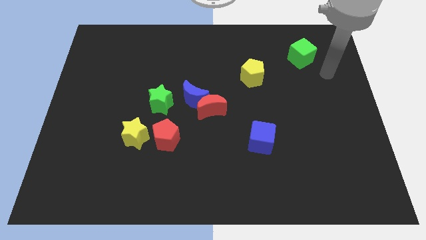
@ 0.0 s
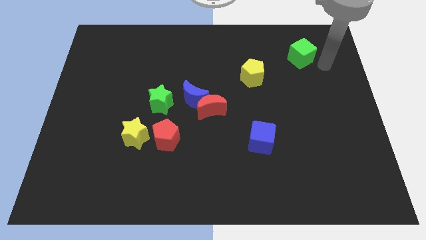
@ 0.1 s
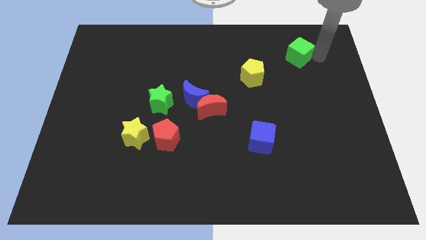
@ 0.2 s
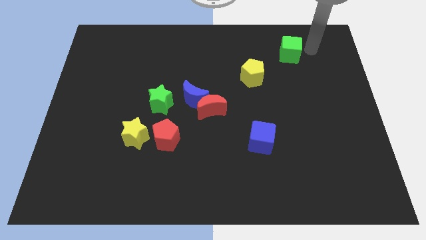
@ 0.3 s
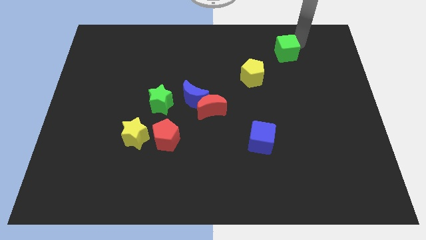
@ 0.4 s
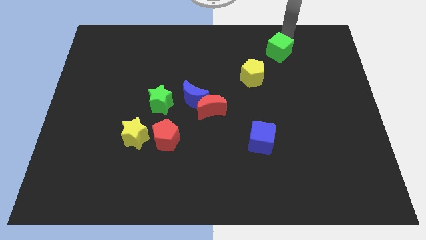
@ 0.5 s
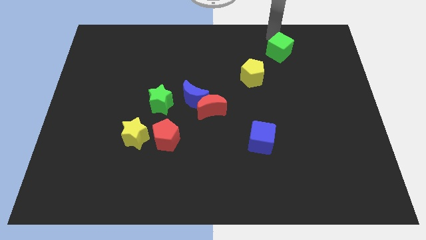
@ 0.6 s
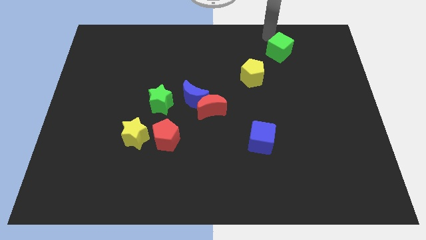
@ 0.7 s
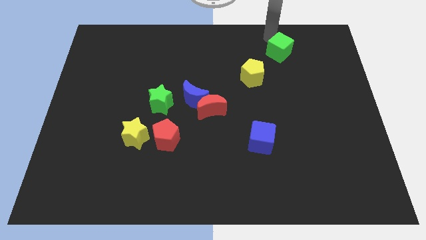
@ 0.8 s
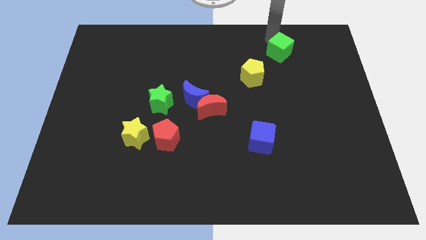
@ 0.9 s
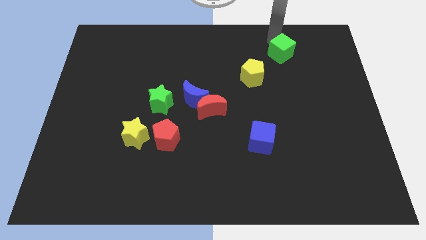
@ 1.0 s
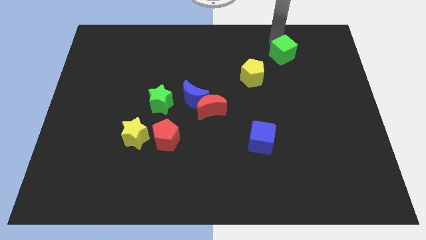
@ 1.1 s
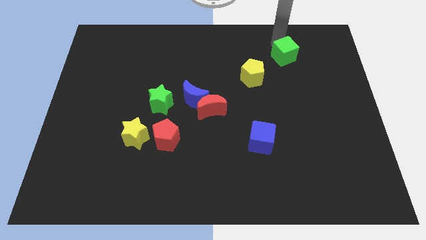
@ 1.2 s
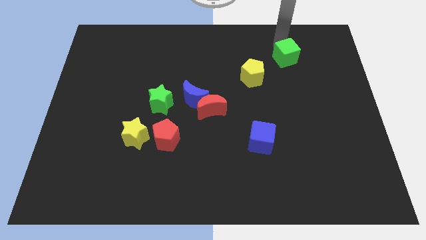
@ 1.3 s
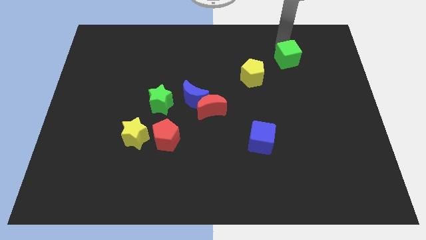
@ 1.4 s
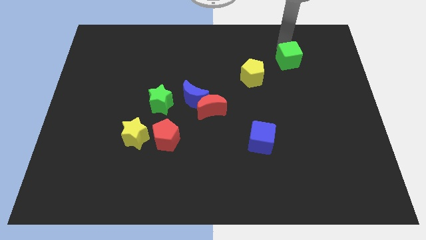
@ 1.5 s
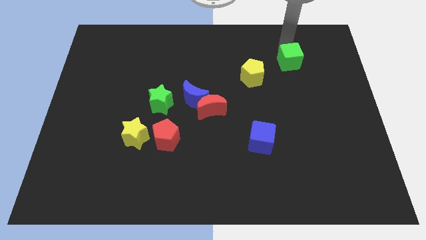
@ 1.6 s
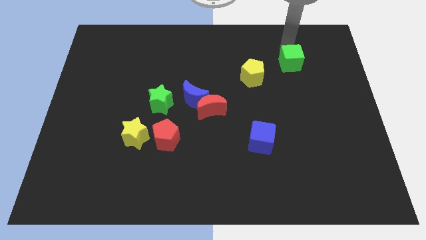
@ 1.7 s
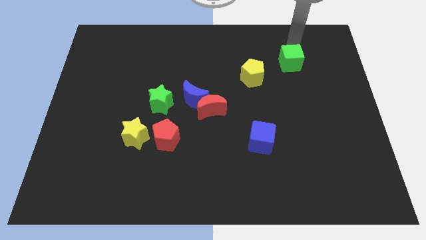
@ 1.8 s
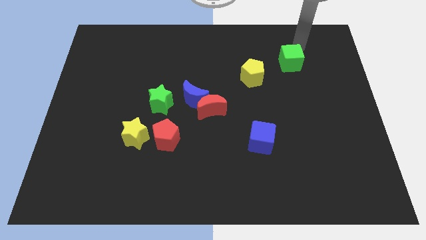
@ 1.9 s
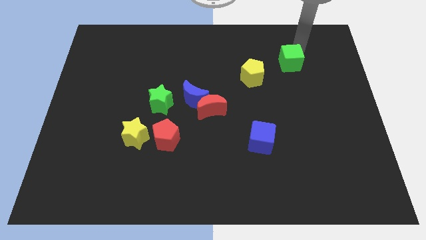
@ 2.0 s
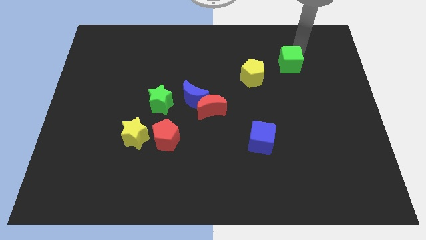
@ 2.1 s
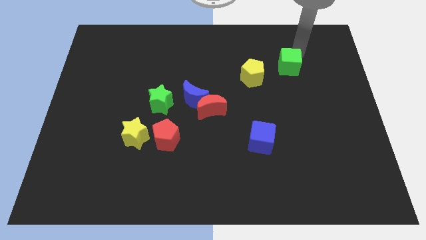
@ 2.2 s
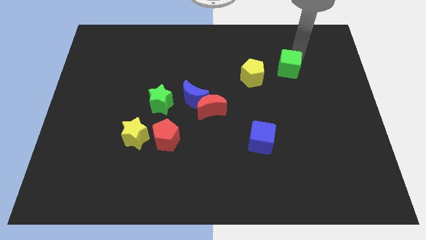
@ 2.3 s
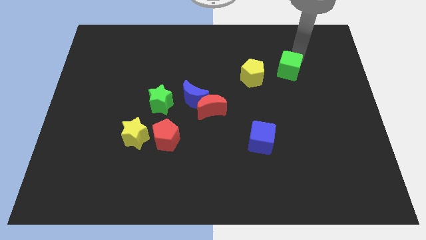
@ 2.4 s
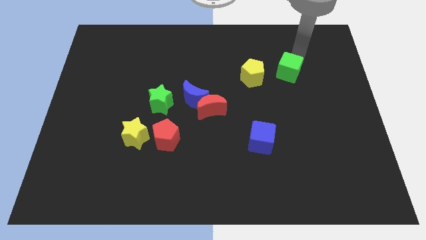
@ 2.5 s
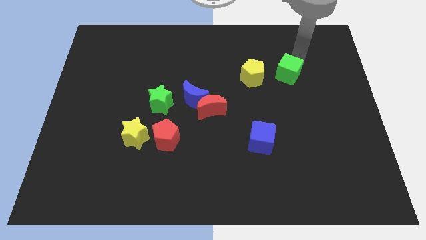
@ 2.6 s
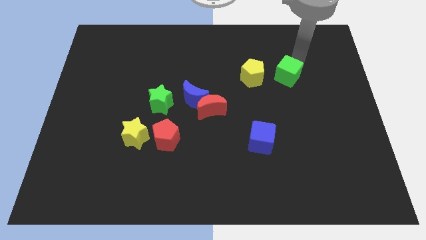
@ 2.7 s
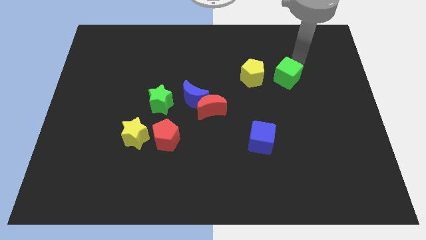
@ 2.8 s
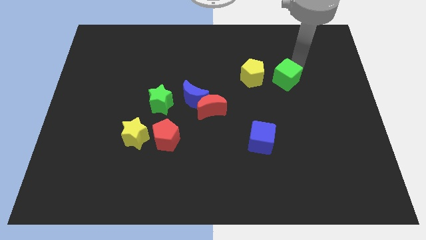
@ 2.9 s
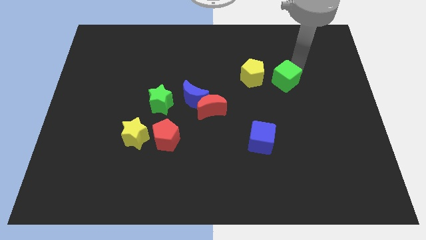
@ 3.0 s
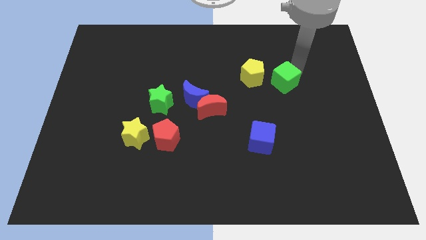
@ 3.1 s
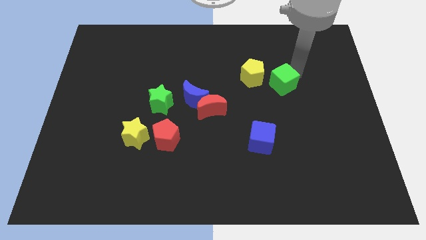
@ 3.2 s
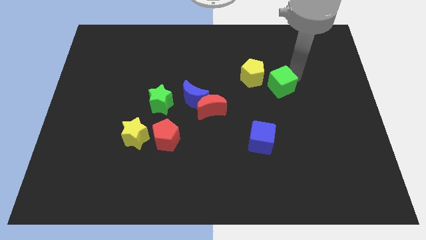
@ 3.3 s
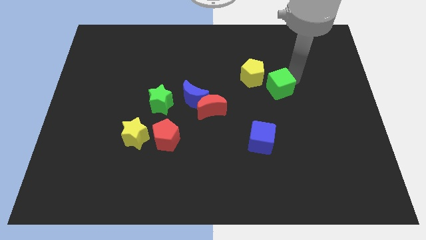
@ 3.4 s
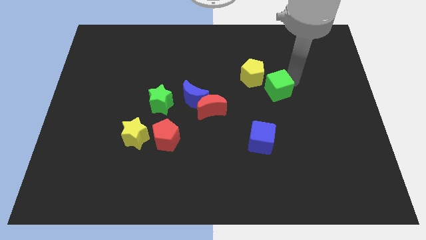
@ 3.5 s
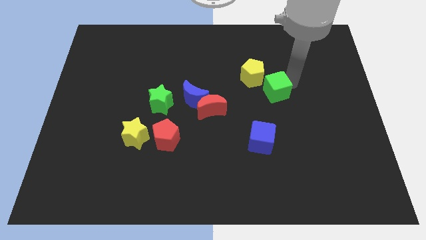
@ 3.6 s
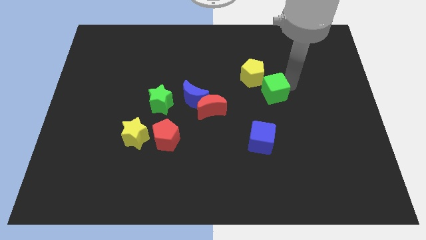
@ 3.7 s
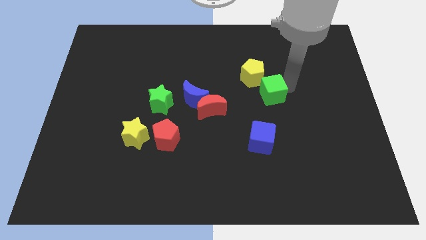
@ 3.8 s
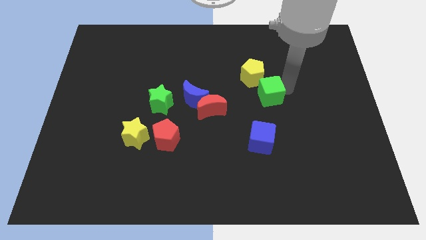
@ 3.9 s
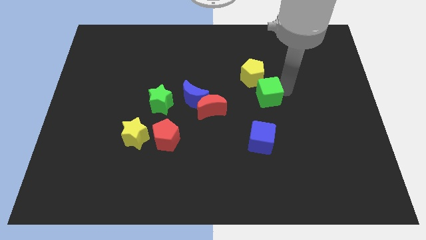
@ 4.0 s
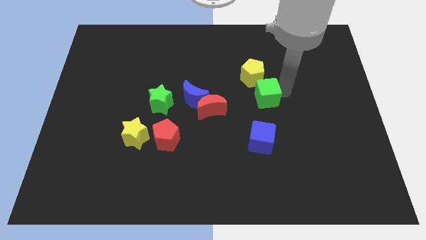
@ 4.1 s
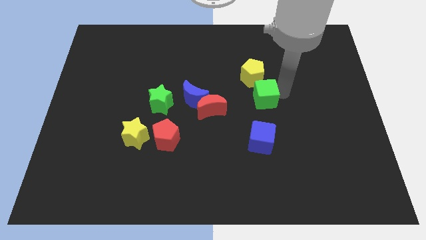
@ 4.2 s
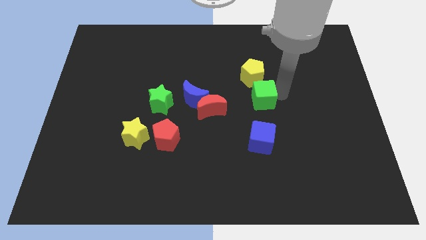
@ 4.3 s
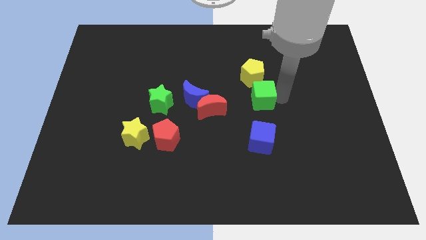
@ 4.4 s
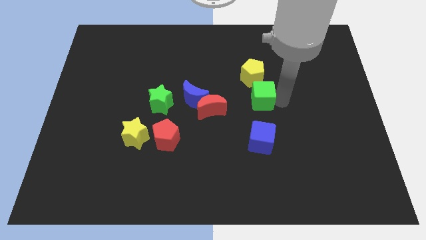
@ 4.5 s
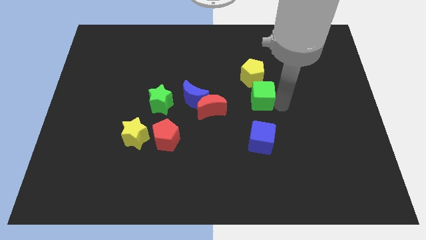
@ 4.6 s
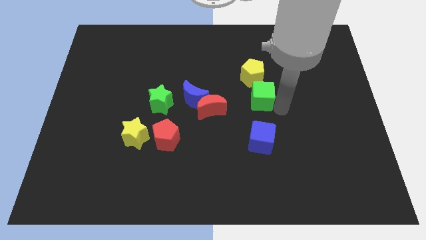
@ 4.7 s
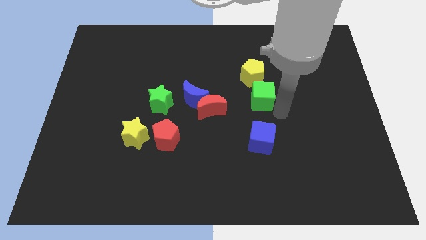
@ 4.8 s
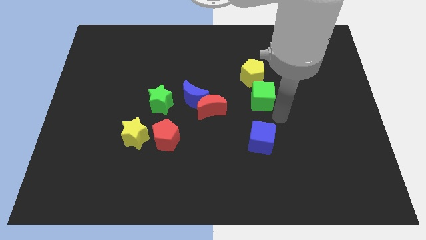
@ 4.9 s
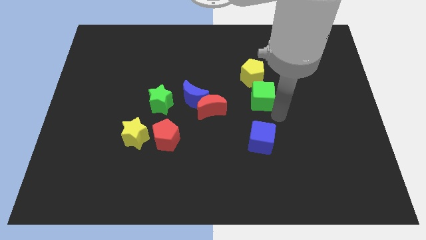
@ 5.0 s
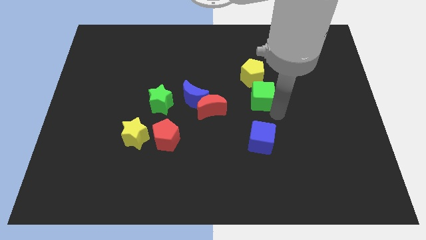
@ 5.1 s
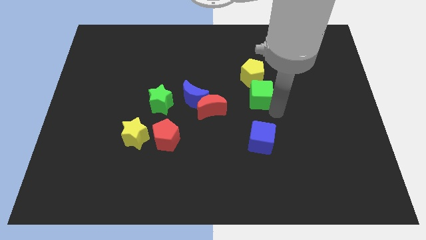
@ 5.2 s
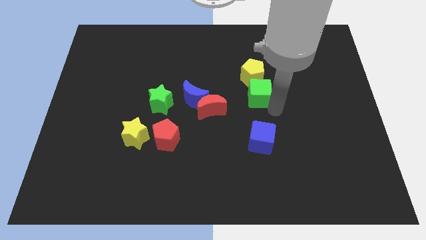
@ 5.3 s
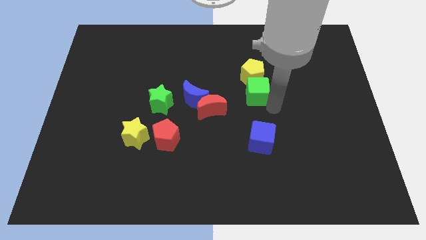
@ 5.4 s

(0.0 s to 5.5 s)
put the green cube to the bottom left of the yellow pentagon

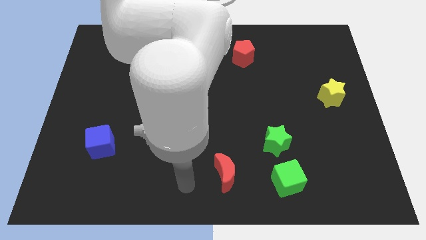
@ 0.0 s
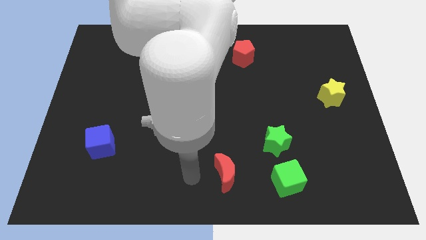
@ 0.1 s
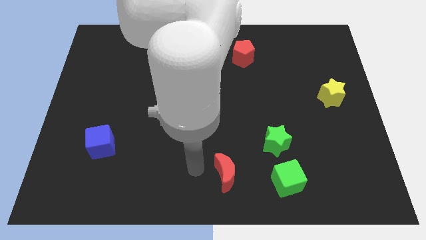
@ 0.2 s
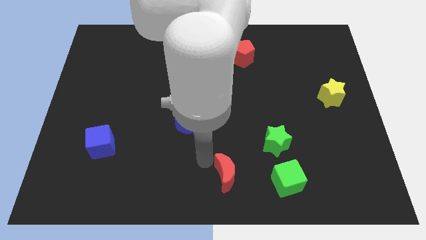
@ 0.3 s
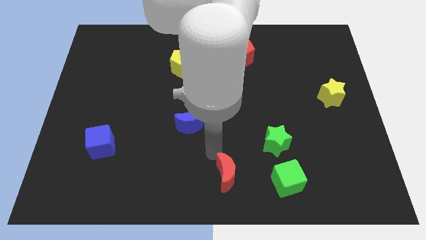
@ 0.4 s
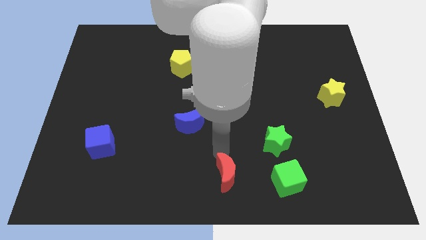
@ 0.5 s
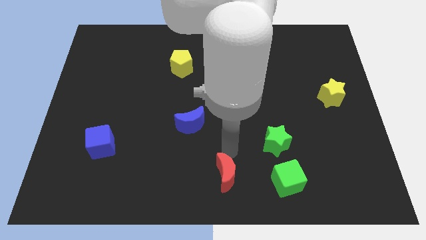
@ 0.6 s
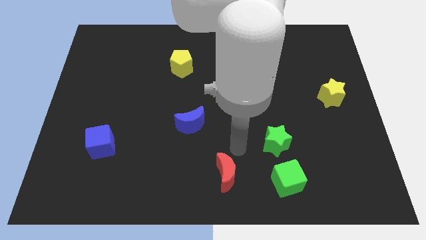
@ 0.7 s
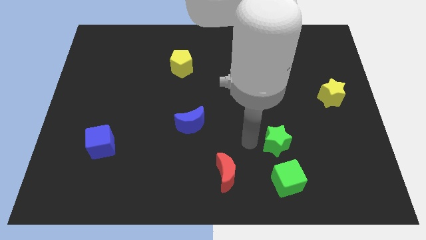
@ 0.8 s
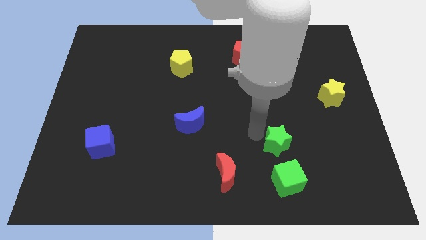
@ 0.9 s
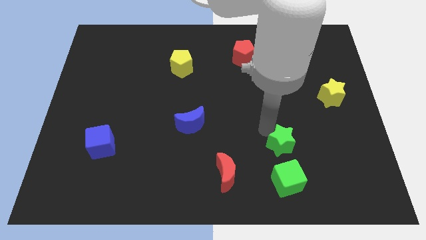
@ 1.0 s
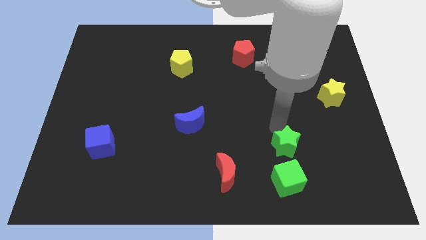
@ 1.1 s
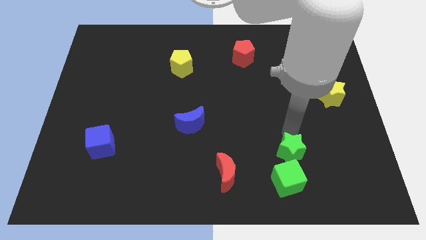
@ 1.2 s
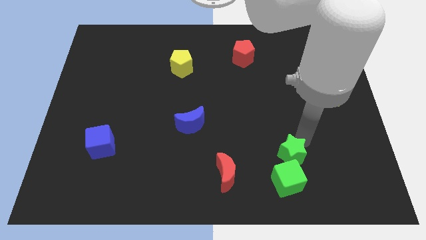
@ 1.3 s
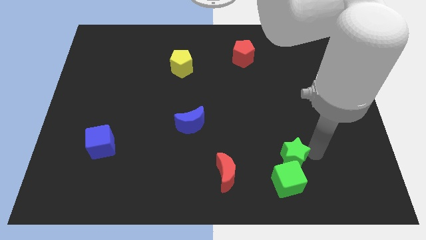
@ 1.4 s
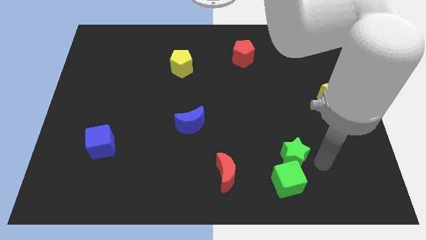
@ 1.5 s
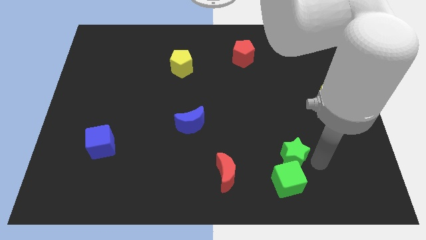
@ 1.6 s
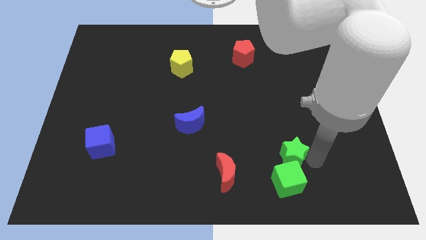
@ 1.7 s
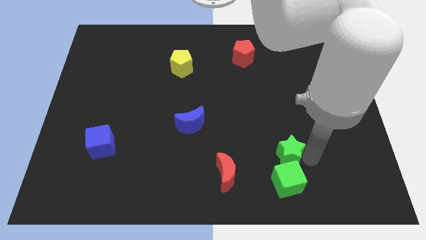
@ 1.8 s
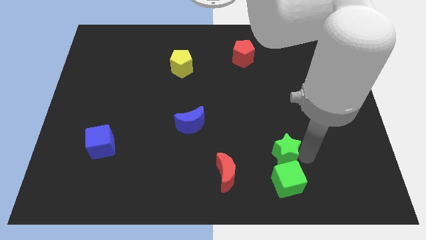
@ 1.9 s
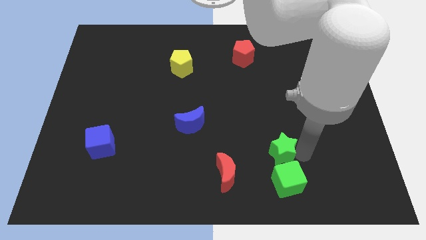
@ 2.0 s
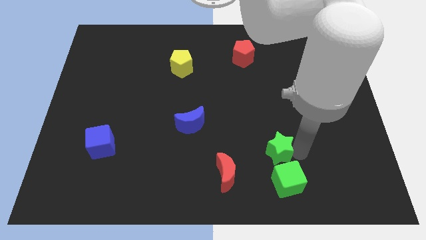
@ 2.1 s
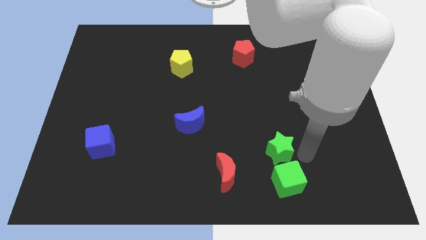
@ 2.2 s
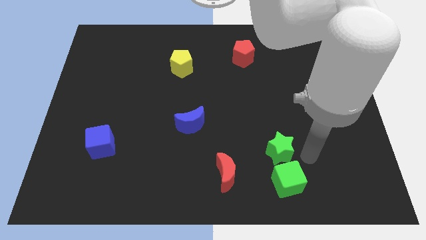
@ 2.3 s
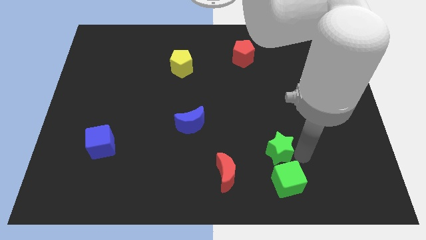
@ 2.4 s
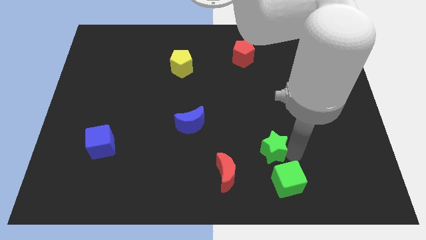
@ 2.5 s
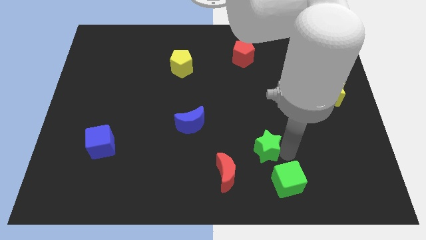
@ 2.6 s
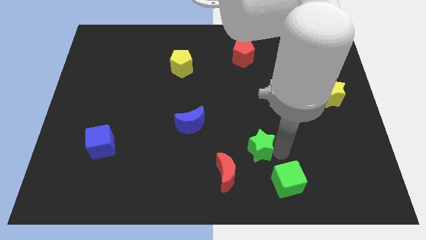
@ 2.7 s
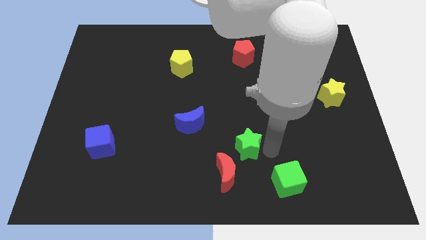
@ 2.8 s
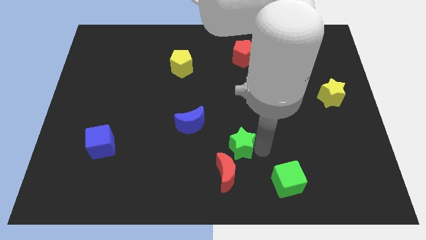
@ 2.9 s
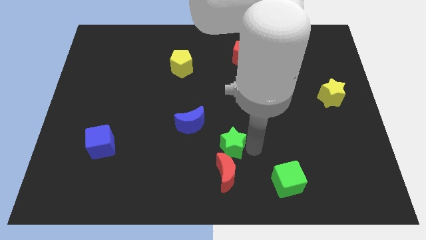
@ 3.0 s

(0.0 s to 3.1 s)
move the green star diagonally down and to the right of the blue moon
